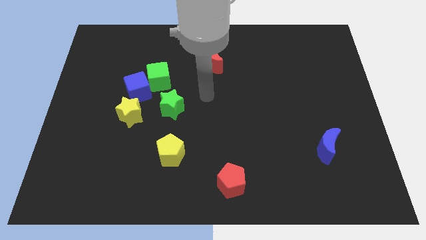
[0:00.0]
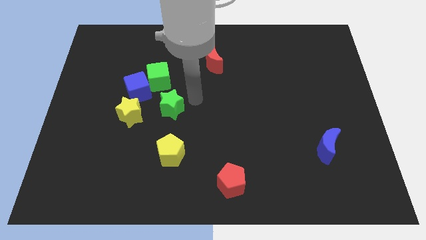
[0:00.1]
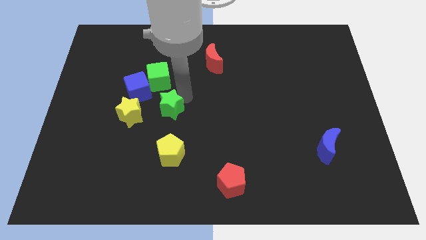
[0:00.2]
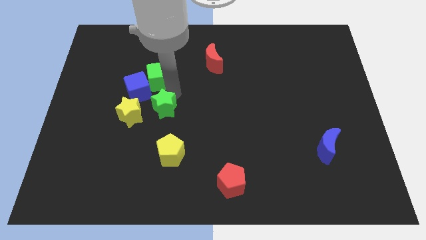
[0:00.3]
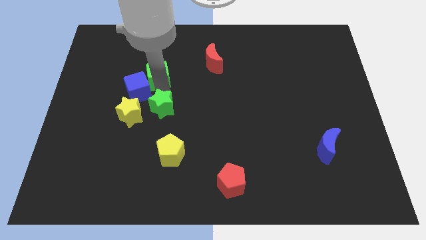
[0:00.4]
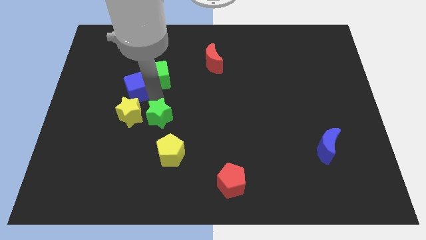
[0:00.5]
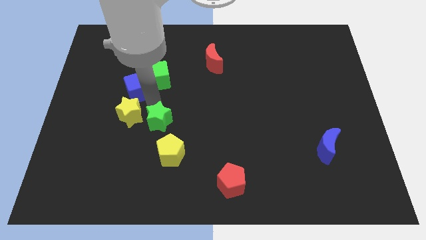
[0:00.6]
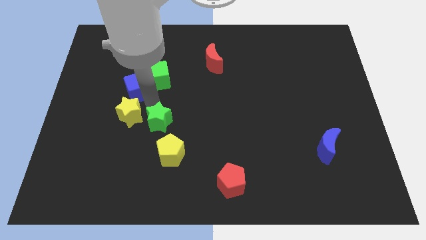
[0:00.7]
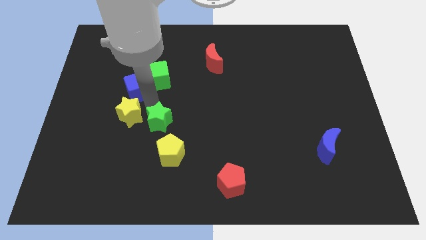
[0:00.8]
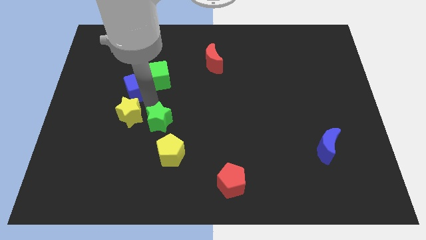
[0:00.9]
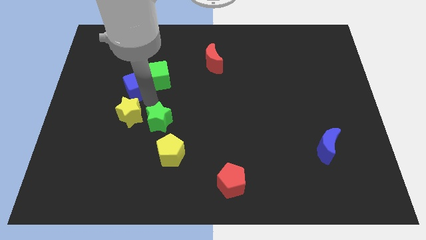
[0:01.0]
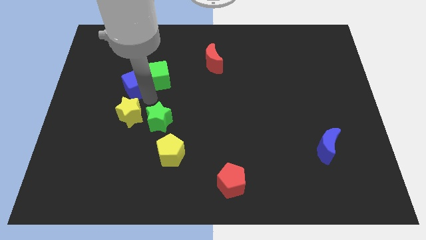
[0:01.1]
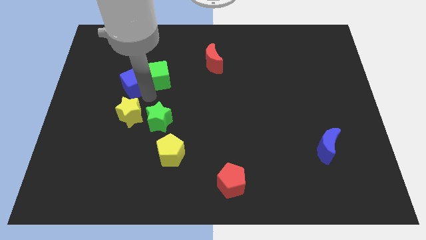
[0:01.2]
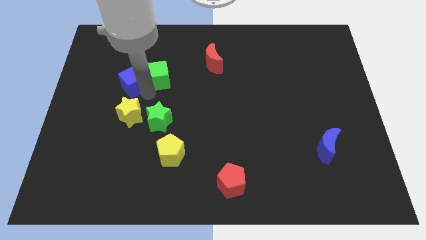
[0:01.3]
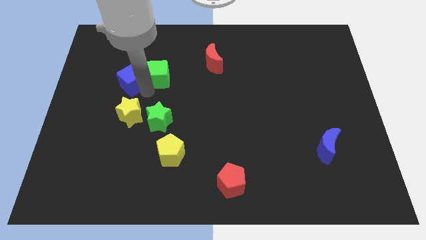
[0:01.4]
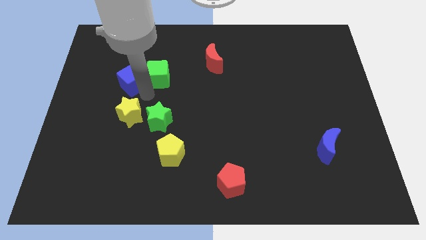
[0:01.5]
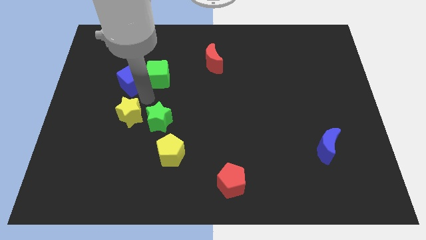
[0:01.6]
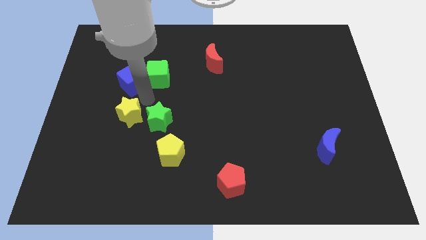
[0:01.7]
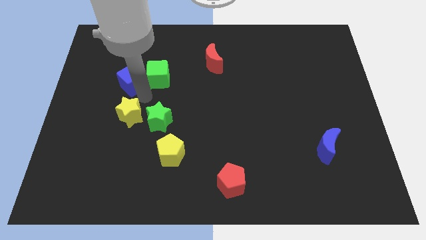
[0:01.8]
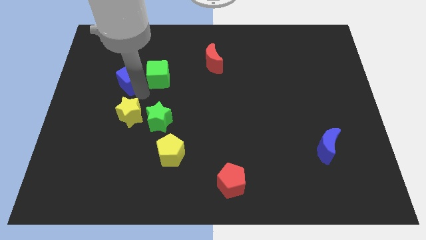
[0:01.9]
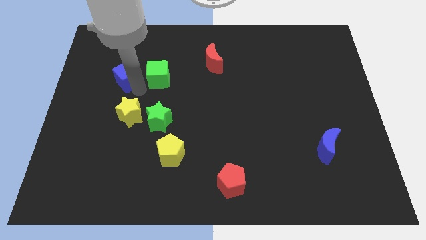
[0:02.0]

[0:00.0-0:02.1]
pull the blue cube apart from the green cube, yellow star, and green star

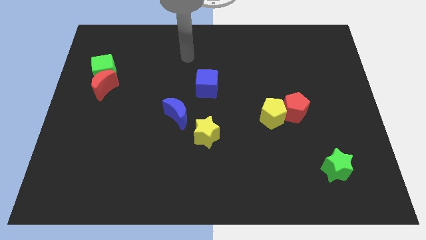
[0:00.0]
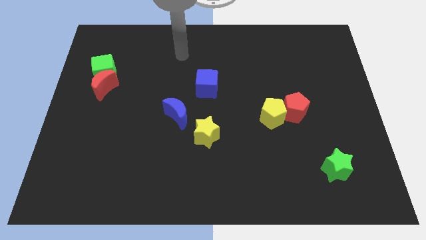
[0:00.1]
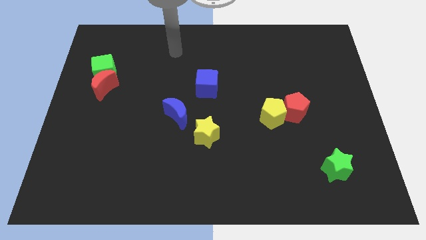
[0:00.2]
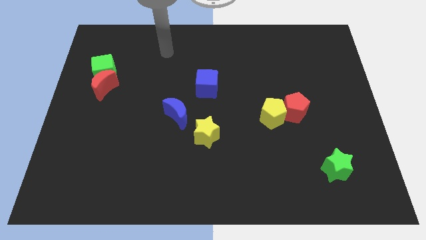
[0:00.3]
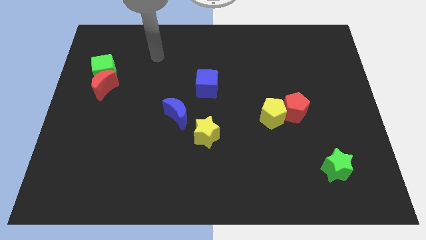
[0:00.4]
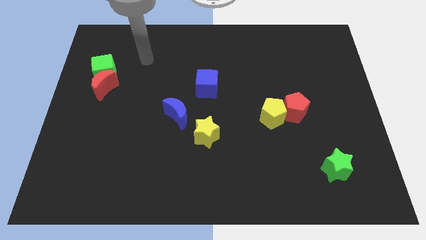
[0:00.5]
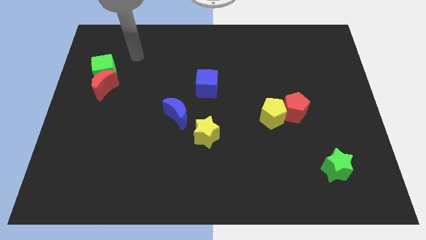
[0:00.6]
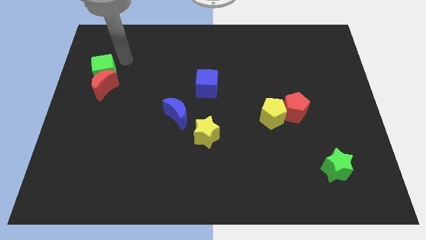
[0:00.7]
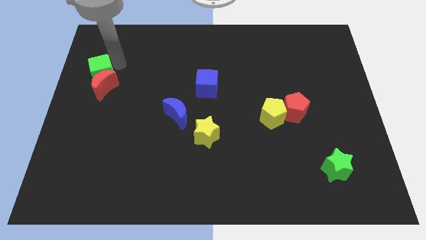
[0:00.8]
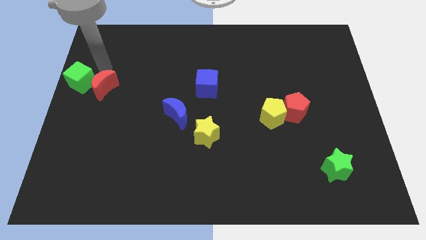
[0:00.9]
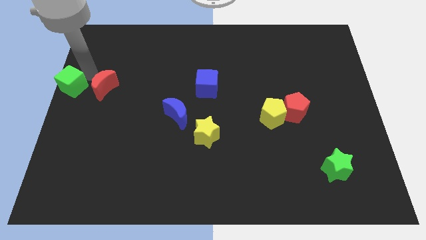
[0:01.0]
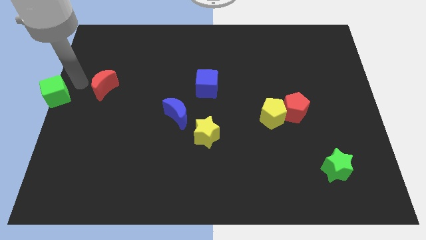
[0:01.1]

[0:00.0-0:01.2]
move the red moon away from the green cube

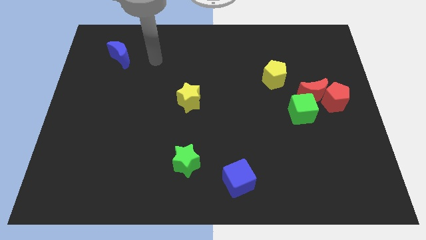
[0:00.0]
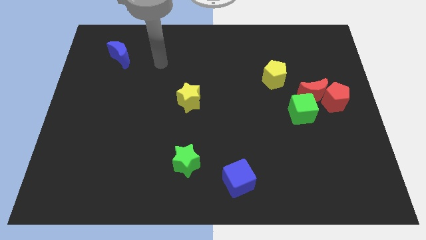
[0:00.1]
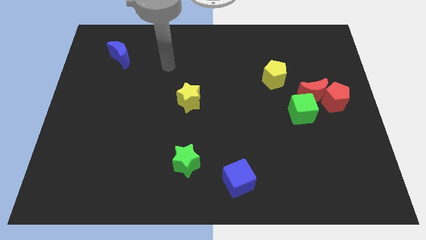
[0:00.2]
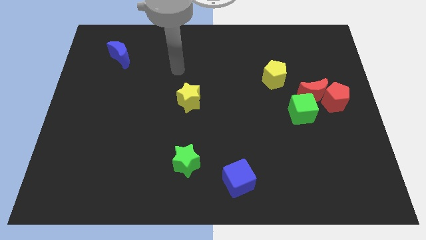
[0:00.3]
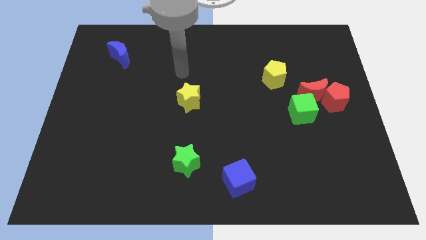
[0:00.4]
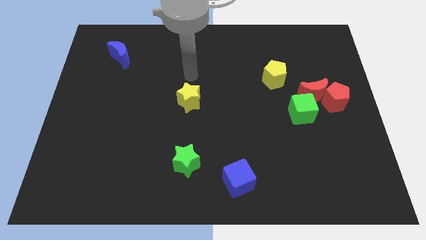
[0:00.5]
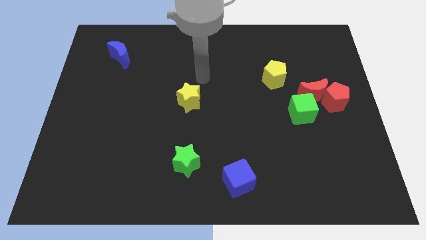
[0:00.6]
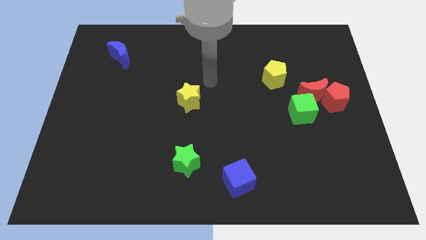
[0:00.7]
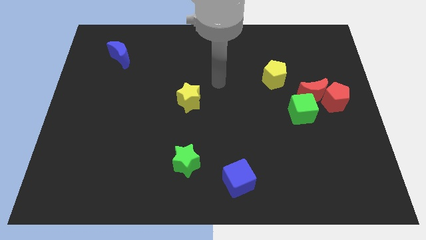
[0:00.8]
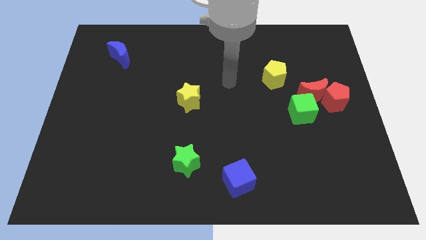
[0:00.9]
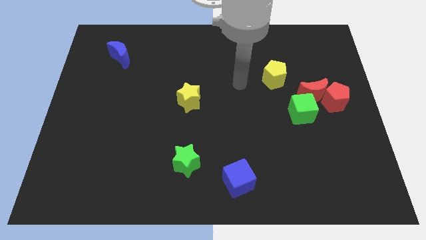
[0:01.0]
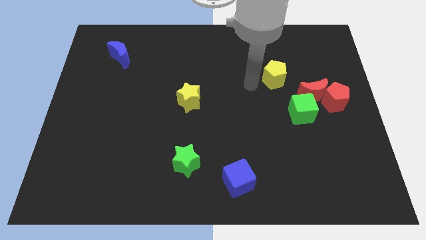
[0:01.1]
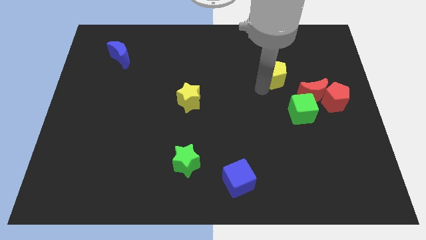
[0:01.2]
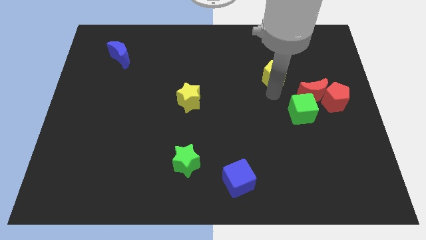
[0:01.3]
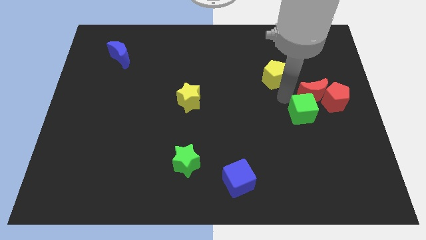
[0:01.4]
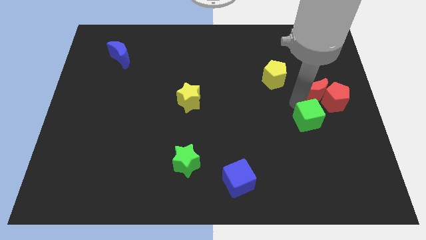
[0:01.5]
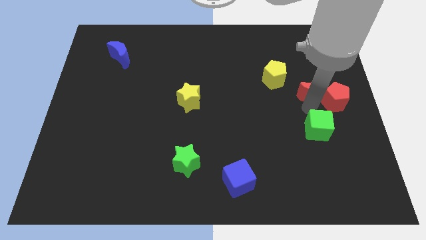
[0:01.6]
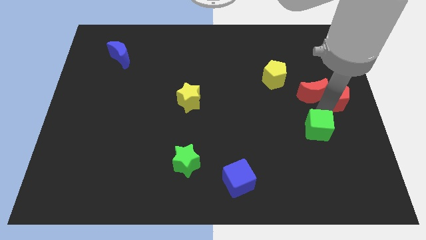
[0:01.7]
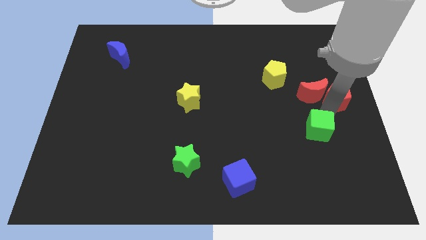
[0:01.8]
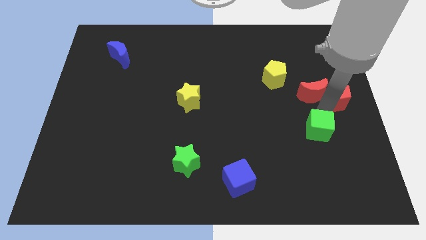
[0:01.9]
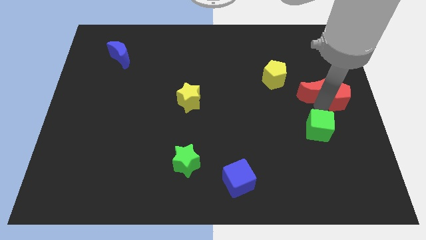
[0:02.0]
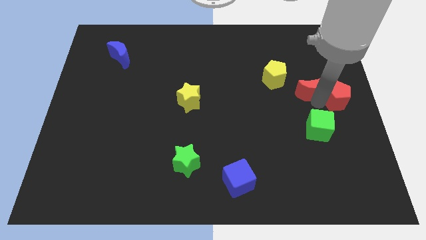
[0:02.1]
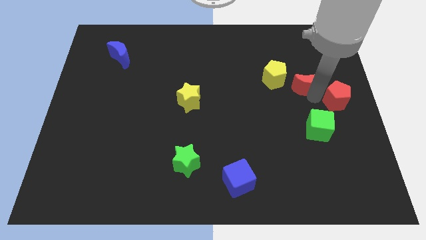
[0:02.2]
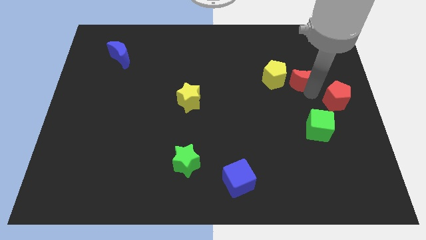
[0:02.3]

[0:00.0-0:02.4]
pull the red moon apart from the red pentagon and green cube

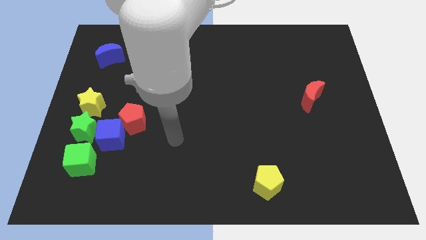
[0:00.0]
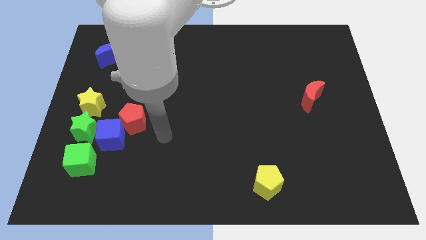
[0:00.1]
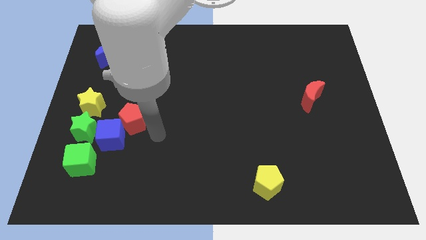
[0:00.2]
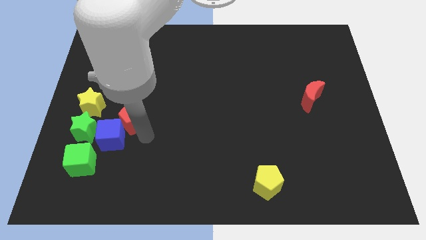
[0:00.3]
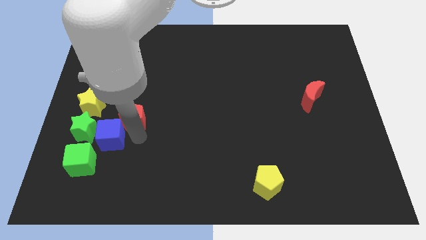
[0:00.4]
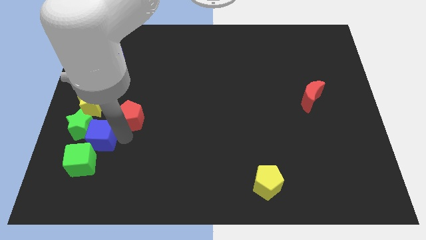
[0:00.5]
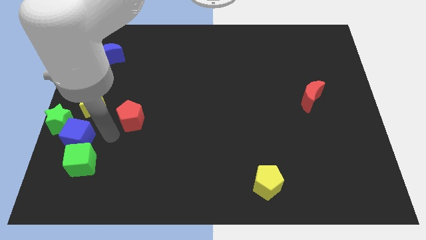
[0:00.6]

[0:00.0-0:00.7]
separate the red pentagon from the blue cube

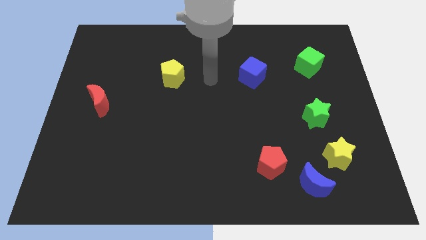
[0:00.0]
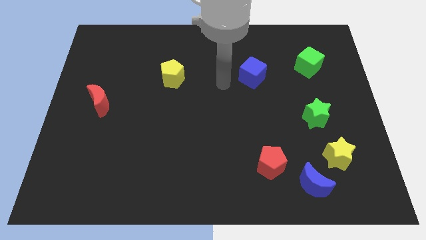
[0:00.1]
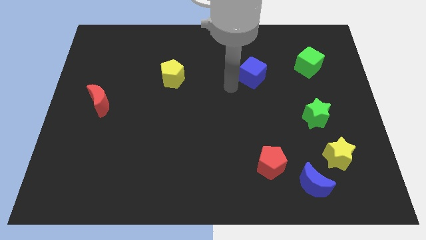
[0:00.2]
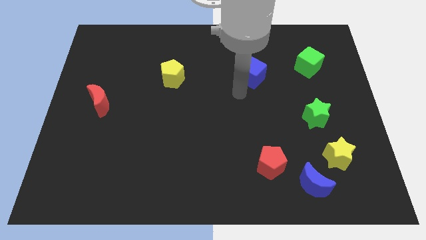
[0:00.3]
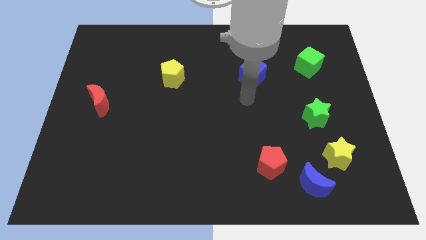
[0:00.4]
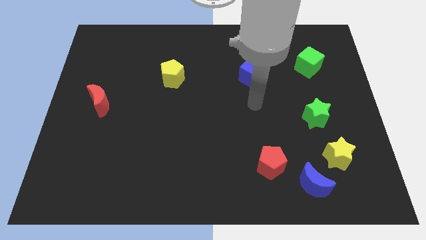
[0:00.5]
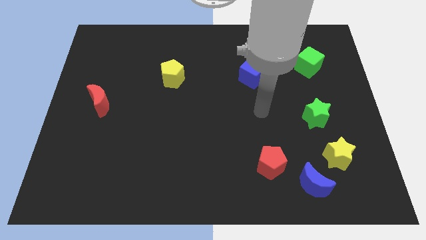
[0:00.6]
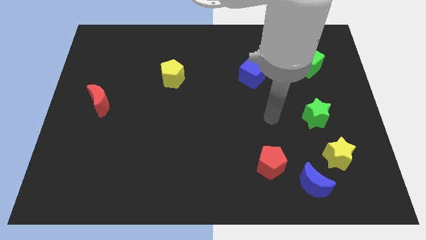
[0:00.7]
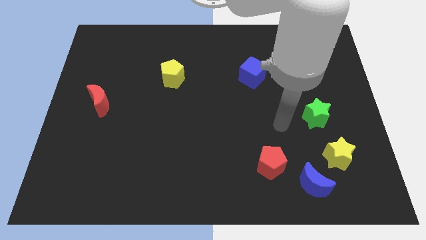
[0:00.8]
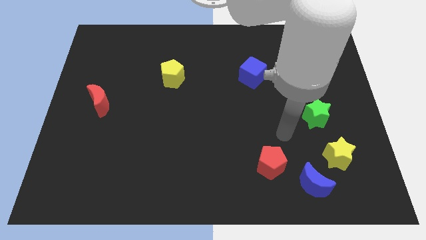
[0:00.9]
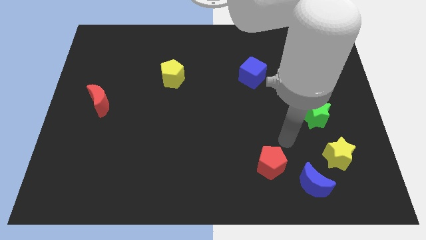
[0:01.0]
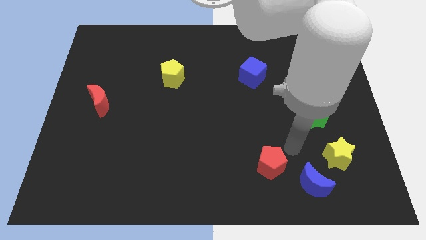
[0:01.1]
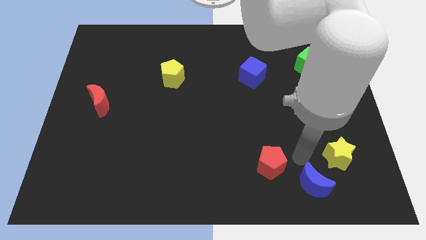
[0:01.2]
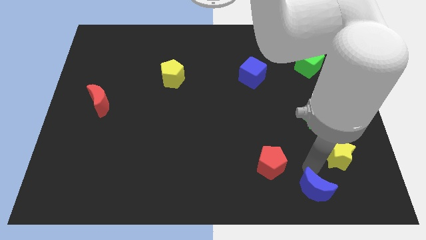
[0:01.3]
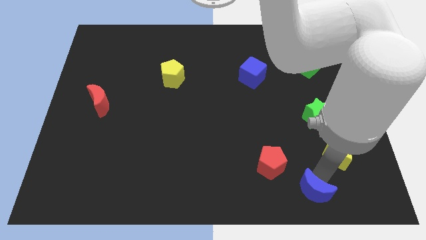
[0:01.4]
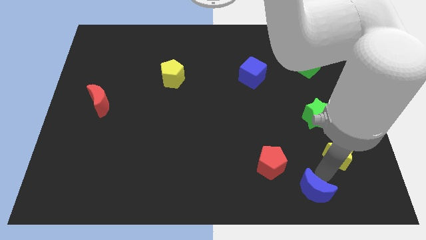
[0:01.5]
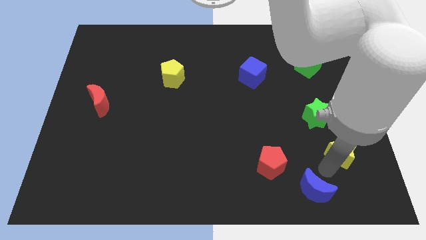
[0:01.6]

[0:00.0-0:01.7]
separate the yellow star from the blue moon

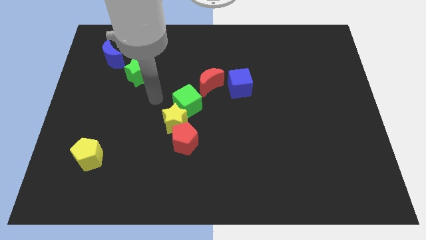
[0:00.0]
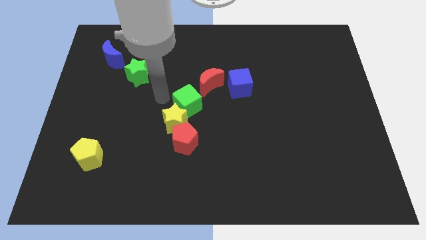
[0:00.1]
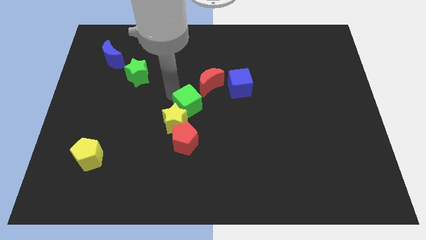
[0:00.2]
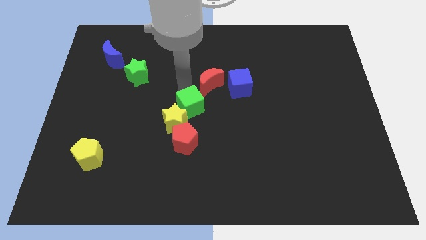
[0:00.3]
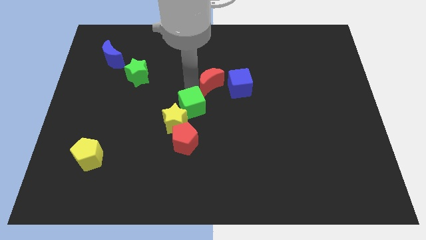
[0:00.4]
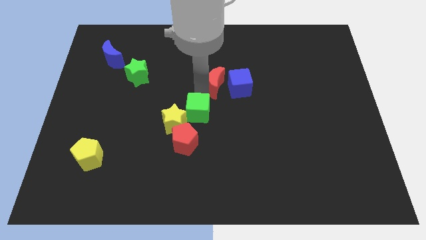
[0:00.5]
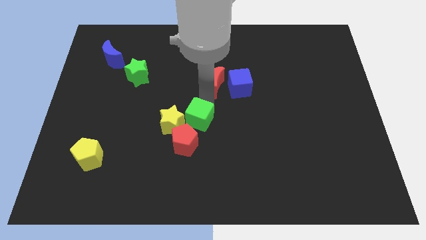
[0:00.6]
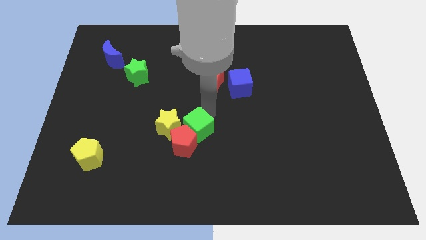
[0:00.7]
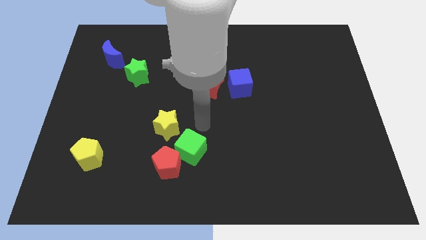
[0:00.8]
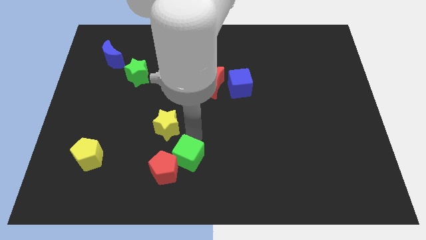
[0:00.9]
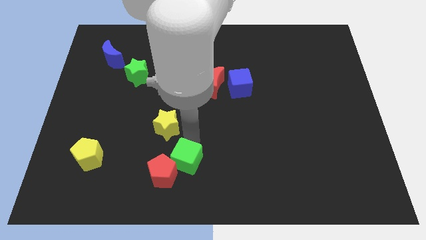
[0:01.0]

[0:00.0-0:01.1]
separate the yellow star from the red pentagon and green cube
